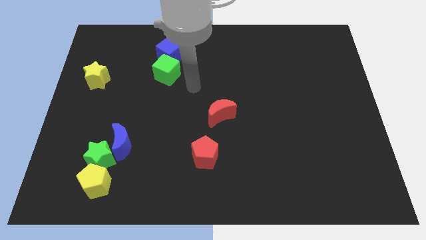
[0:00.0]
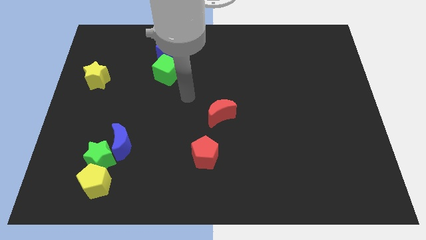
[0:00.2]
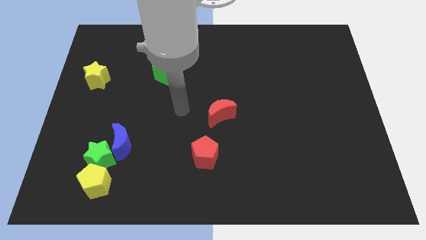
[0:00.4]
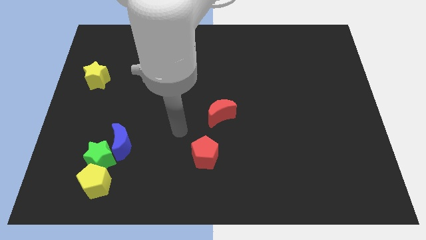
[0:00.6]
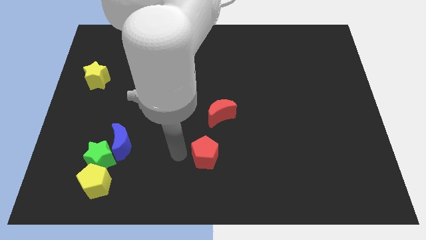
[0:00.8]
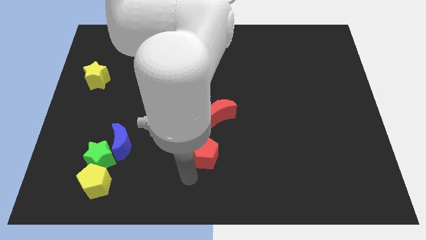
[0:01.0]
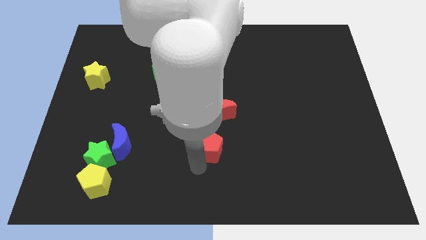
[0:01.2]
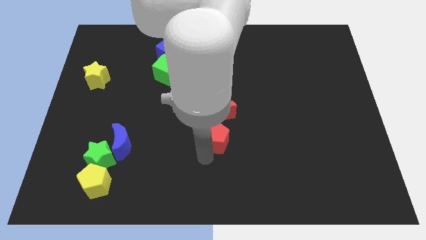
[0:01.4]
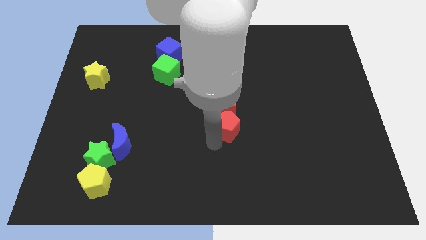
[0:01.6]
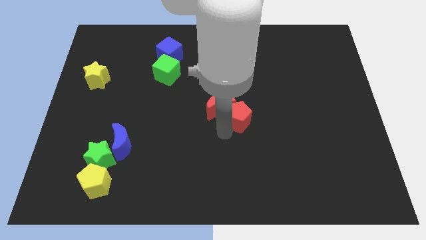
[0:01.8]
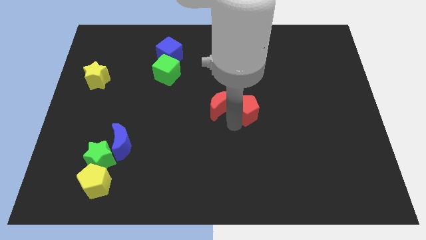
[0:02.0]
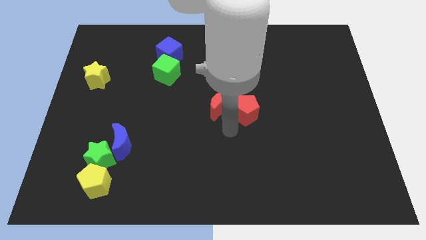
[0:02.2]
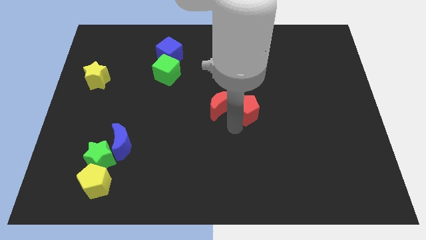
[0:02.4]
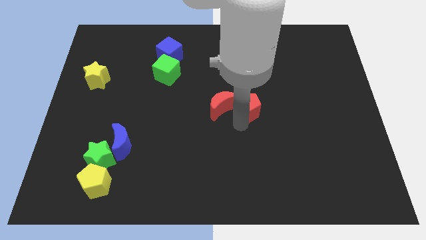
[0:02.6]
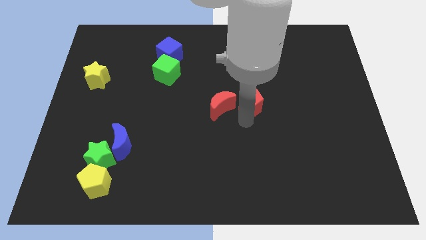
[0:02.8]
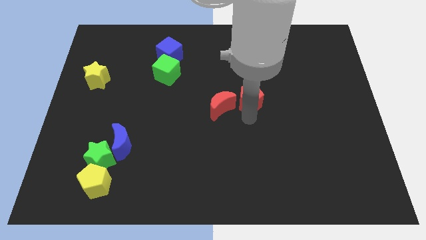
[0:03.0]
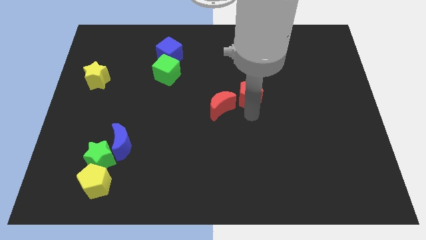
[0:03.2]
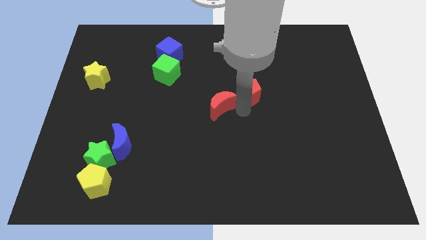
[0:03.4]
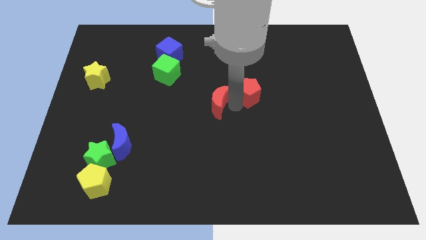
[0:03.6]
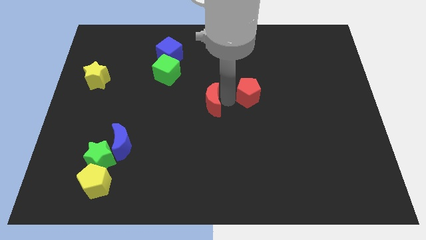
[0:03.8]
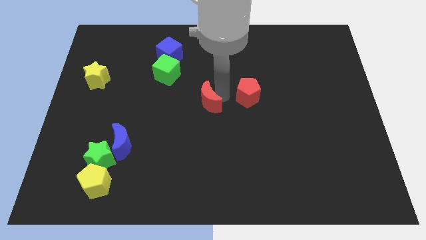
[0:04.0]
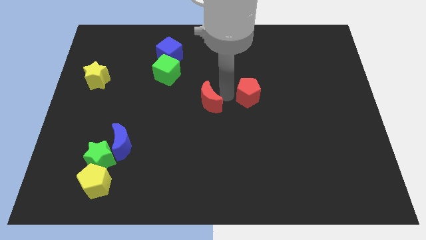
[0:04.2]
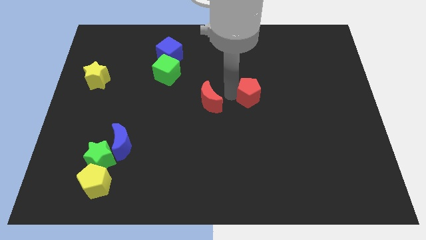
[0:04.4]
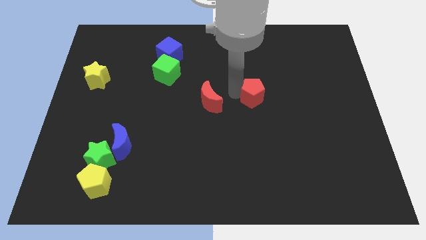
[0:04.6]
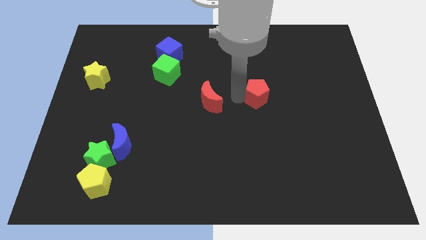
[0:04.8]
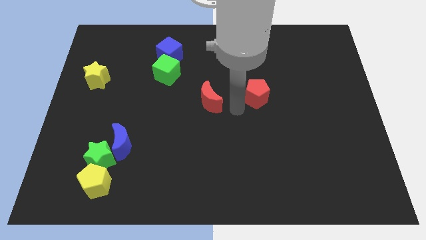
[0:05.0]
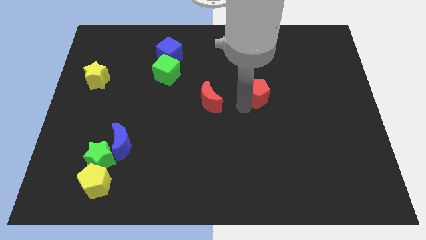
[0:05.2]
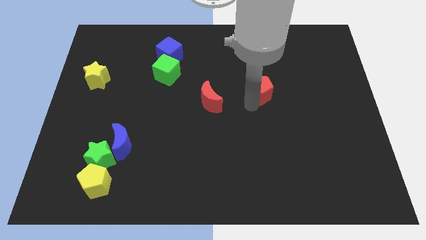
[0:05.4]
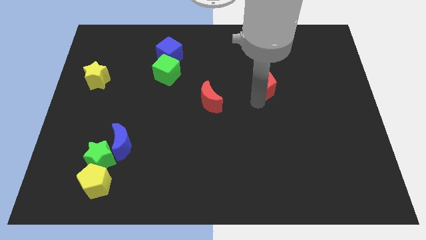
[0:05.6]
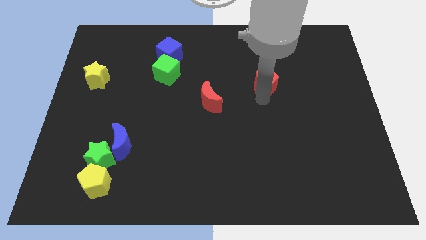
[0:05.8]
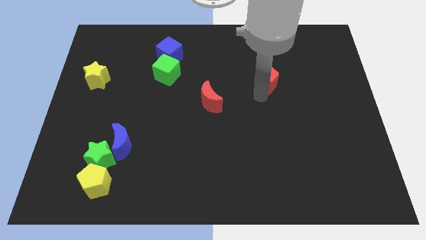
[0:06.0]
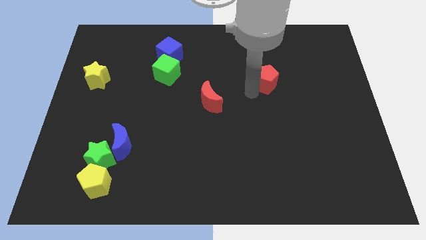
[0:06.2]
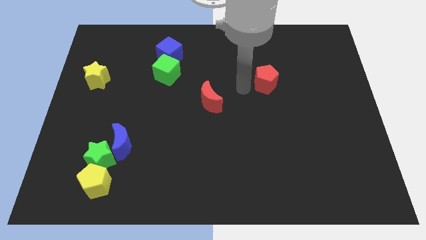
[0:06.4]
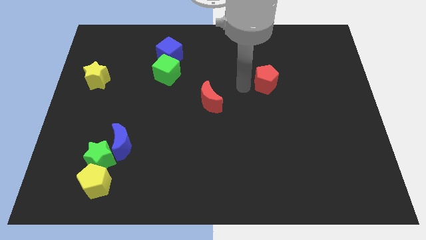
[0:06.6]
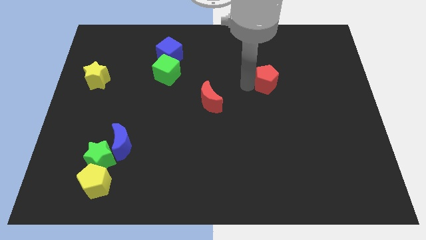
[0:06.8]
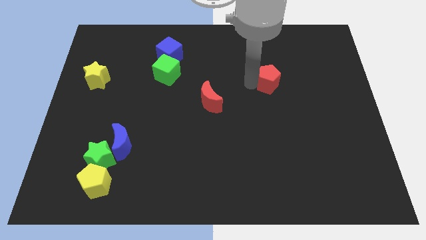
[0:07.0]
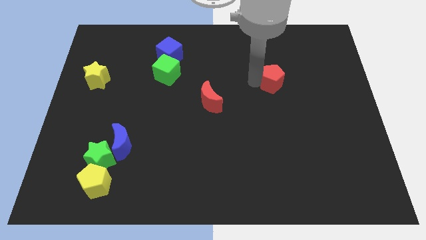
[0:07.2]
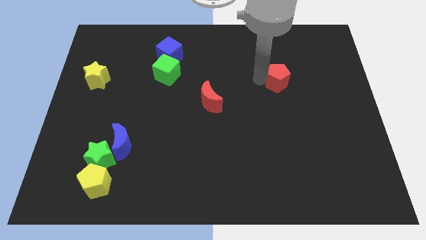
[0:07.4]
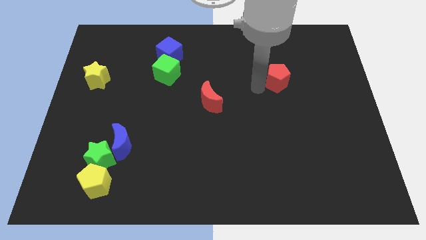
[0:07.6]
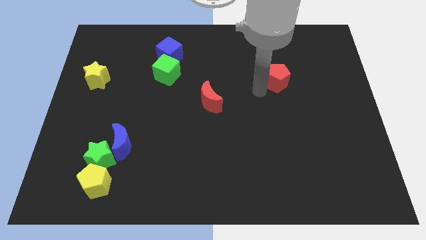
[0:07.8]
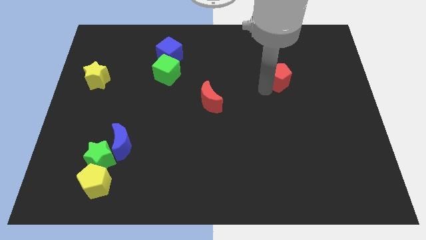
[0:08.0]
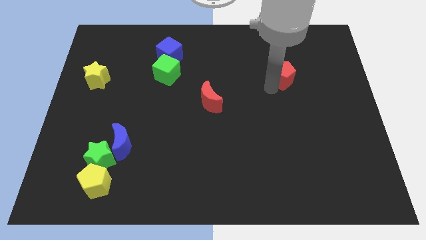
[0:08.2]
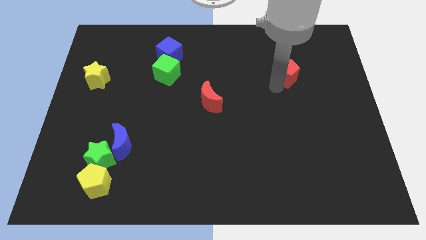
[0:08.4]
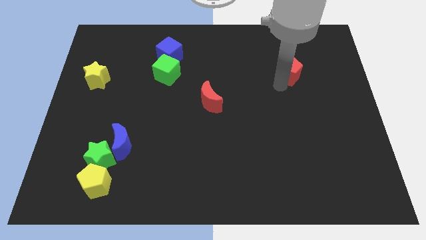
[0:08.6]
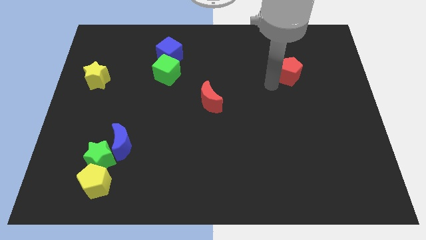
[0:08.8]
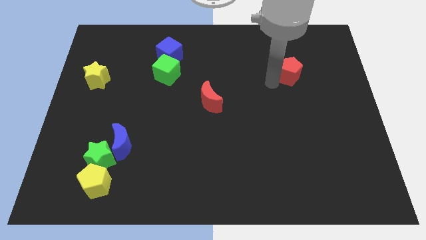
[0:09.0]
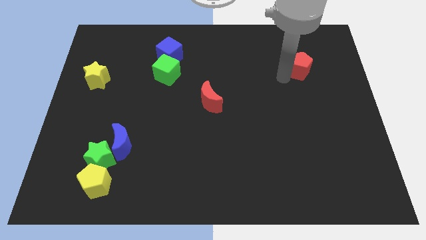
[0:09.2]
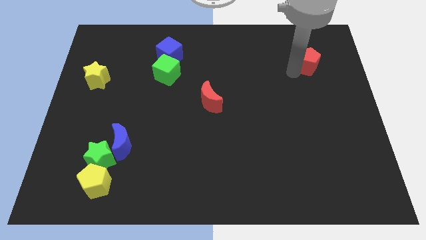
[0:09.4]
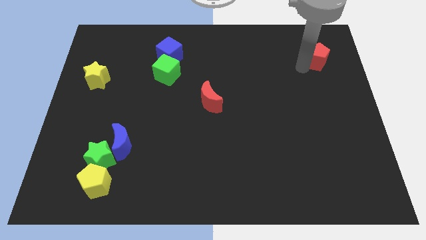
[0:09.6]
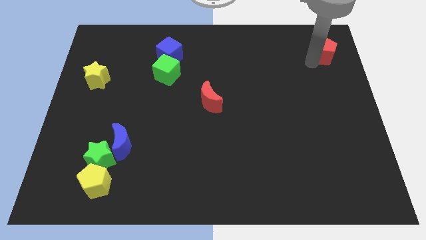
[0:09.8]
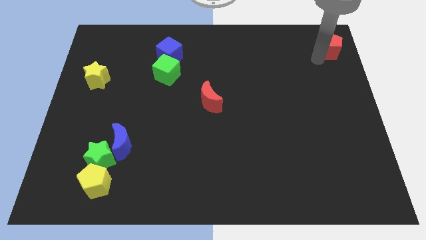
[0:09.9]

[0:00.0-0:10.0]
move the red pentagon to the top right of the board

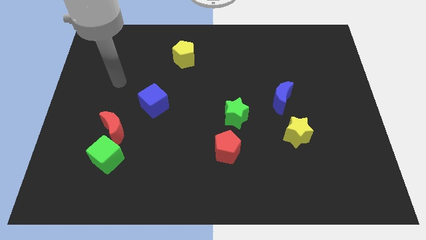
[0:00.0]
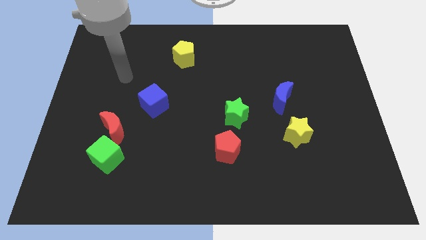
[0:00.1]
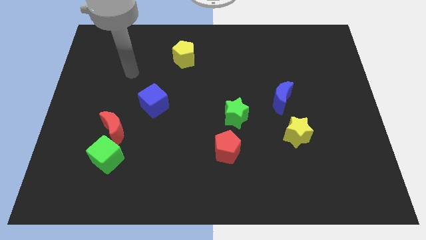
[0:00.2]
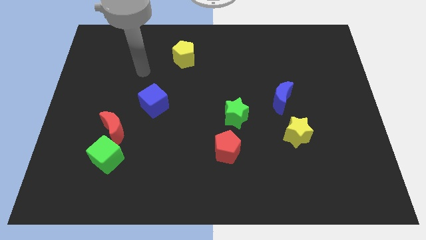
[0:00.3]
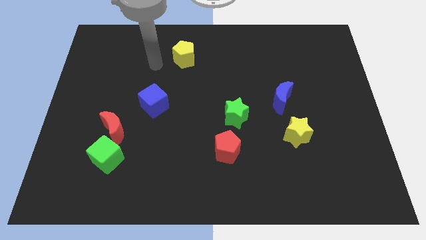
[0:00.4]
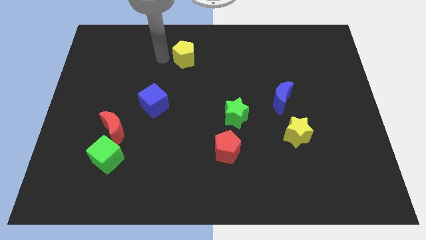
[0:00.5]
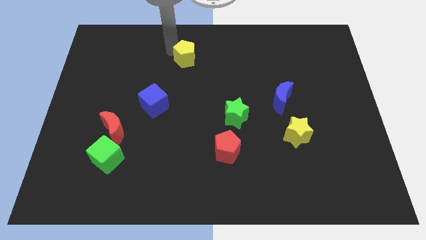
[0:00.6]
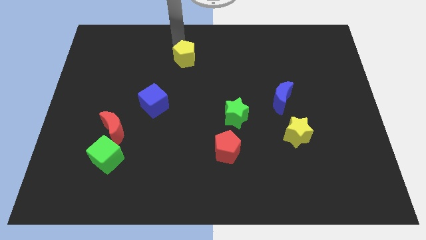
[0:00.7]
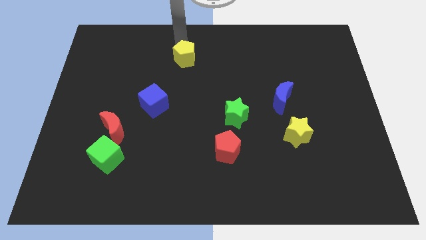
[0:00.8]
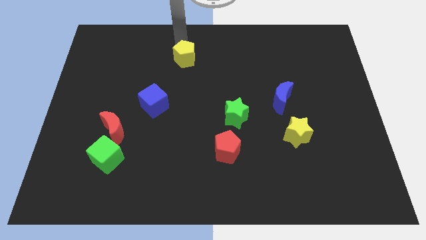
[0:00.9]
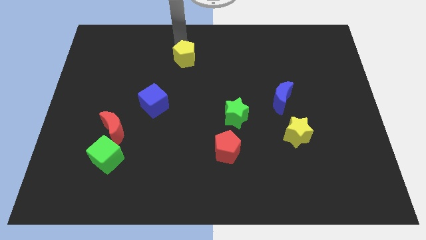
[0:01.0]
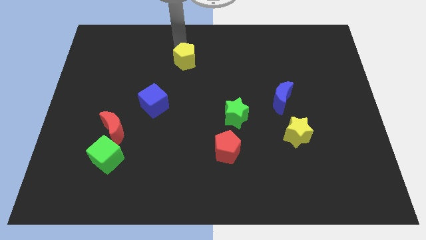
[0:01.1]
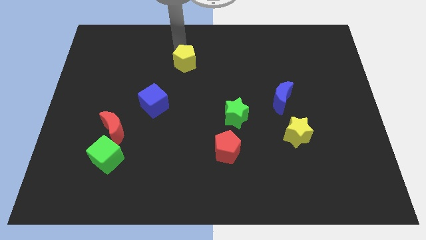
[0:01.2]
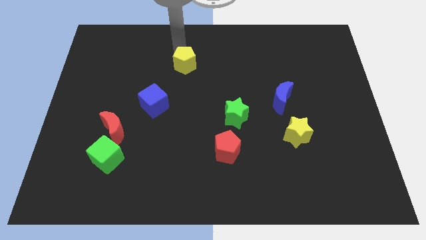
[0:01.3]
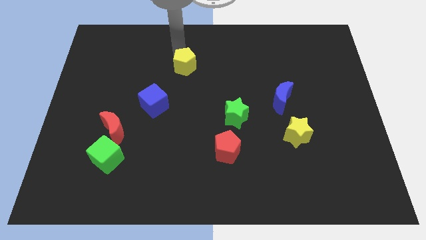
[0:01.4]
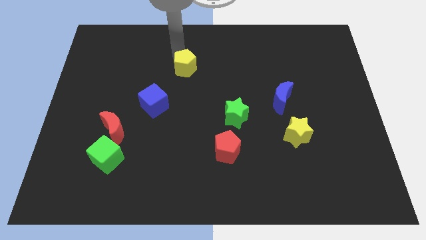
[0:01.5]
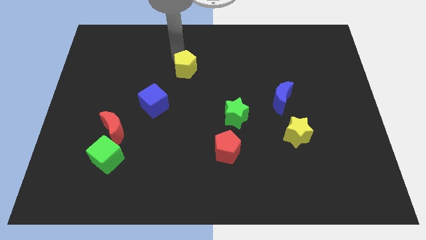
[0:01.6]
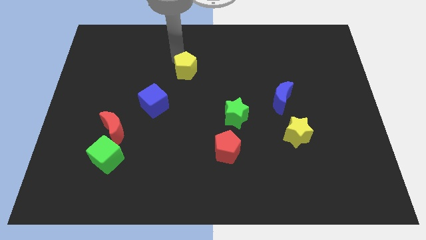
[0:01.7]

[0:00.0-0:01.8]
move the yellow pentagon to the center of the board
